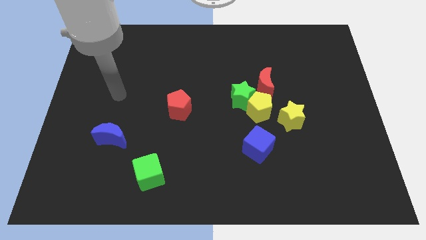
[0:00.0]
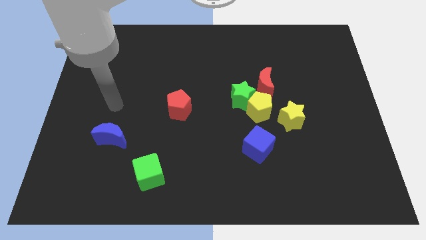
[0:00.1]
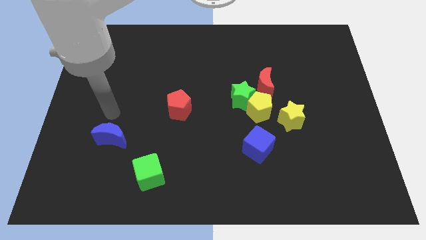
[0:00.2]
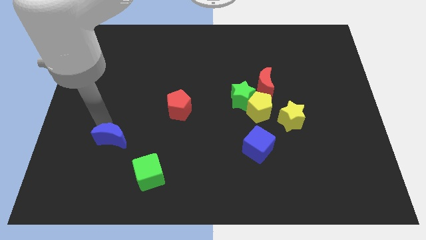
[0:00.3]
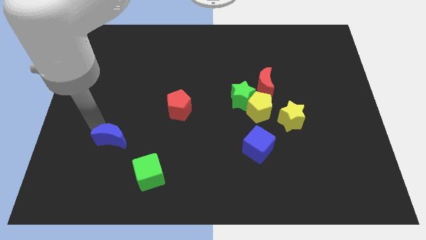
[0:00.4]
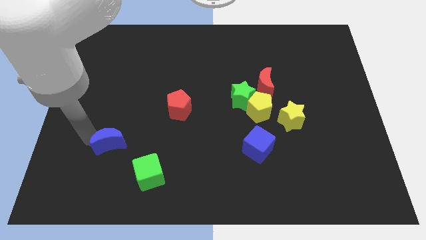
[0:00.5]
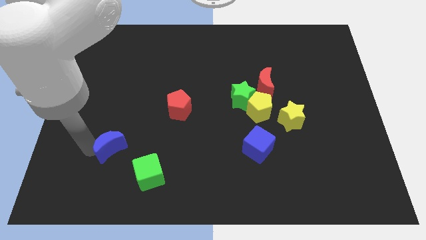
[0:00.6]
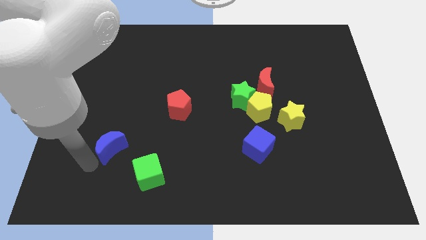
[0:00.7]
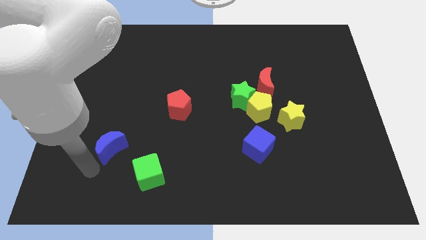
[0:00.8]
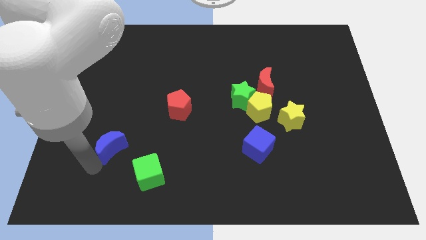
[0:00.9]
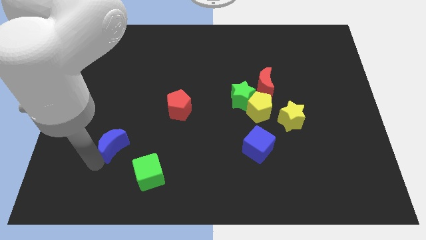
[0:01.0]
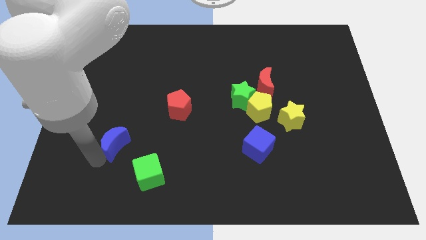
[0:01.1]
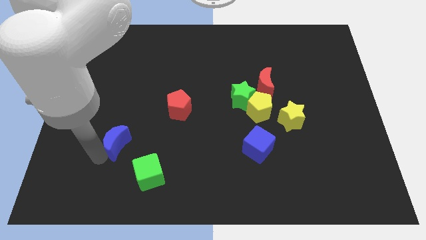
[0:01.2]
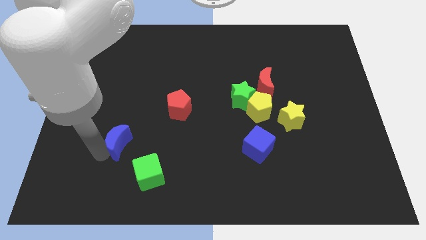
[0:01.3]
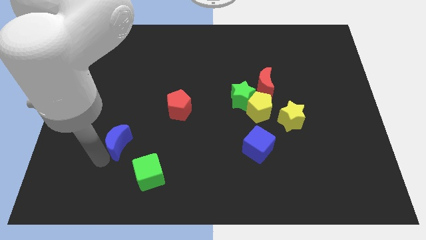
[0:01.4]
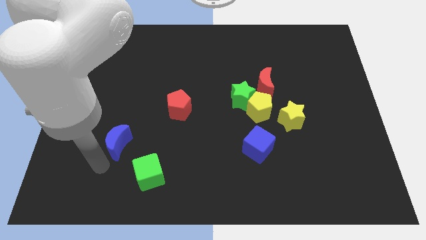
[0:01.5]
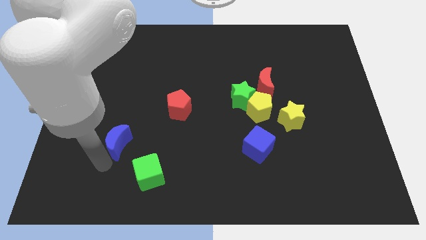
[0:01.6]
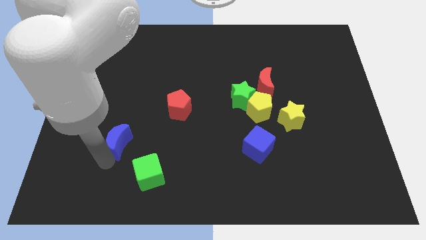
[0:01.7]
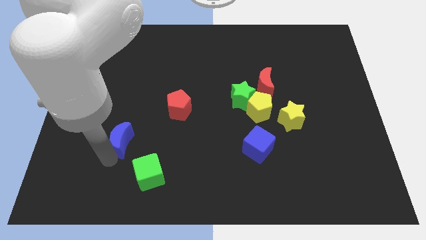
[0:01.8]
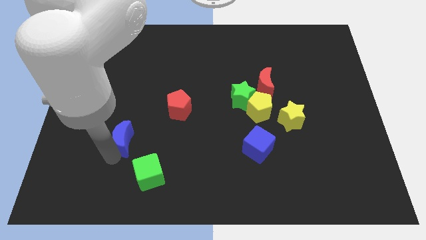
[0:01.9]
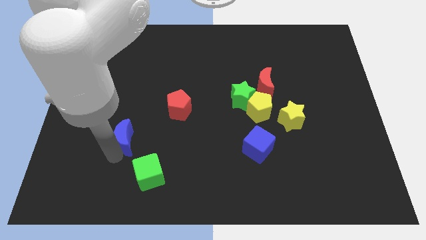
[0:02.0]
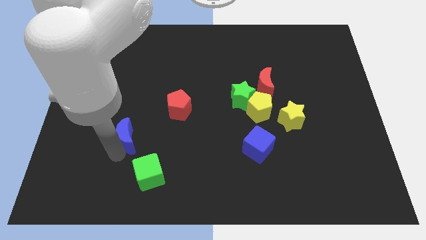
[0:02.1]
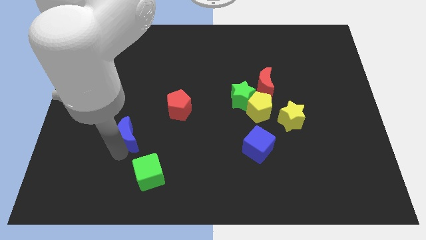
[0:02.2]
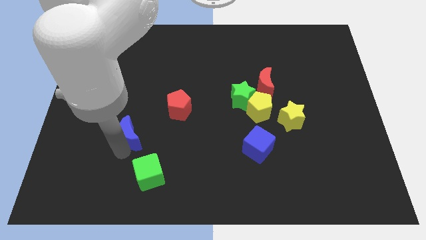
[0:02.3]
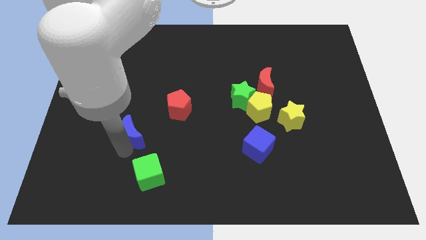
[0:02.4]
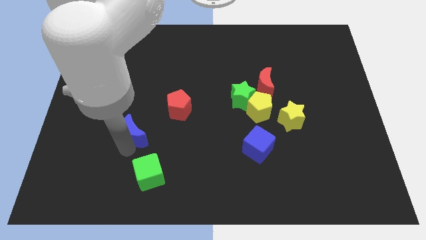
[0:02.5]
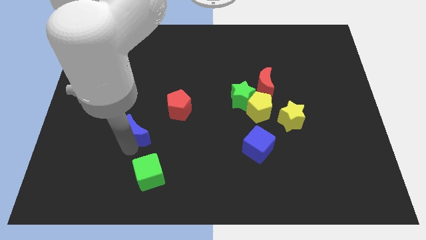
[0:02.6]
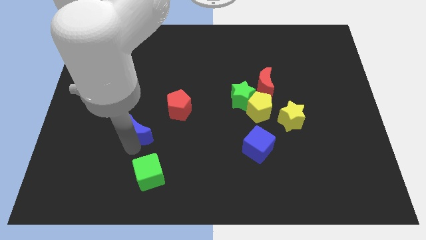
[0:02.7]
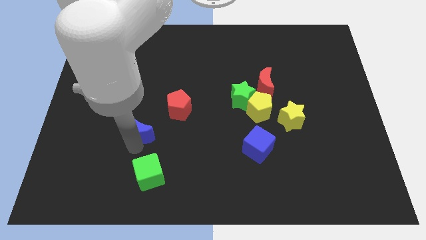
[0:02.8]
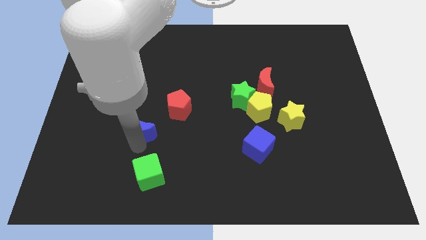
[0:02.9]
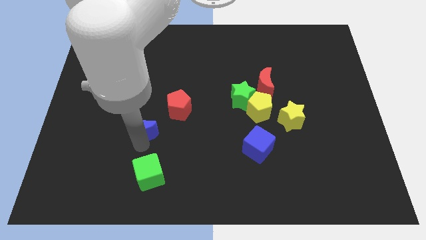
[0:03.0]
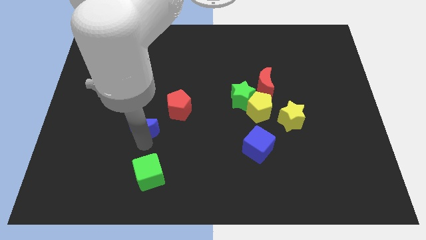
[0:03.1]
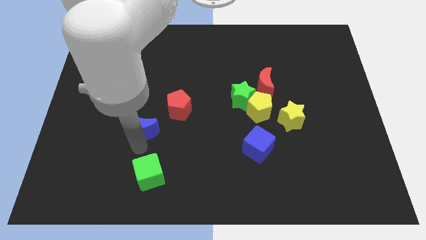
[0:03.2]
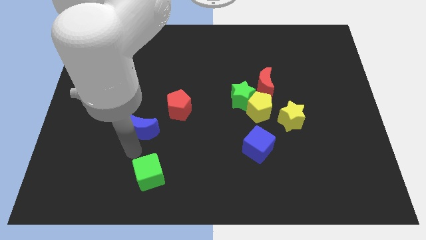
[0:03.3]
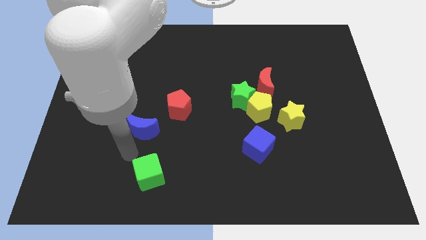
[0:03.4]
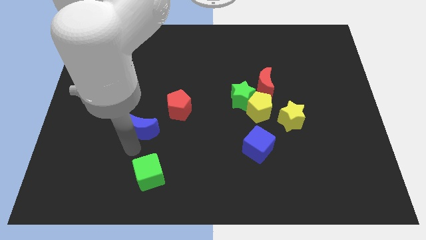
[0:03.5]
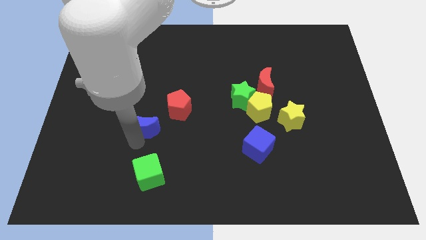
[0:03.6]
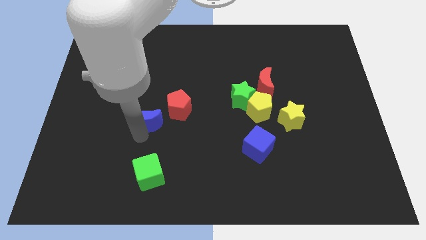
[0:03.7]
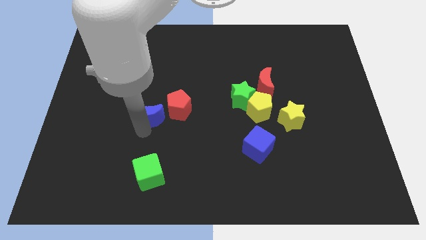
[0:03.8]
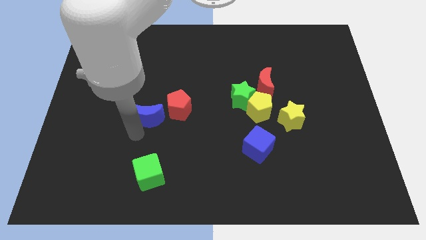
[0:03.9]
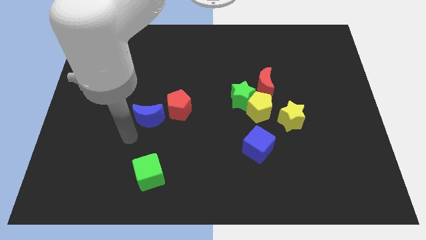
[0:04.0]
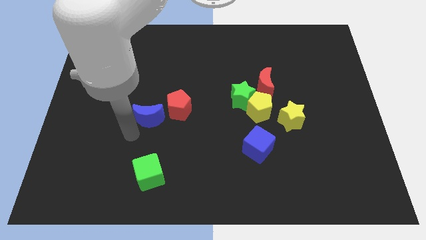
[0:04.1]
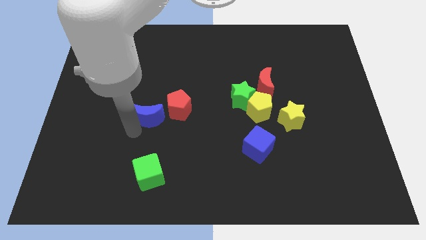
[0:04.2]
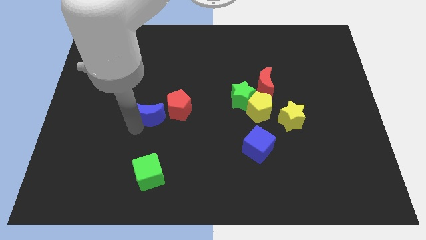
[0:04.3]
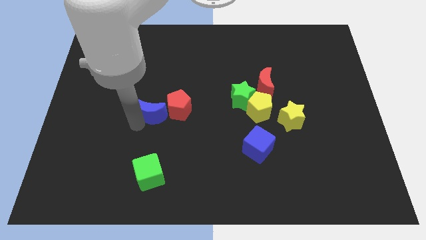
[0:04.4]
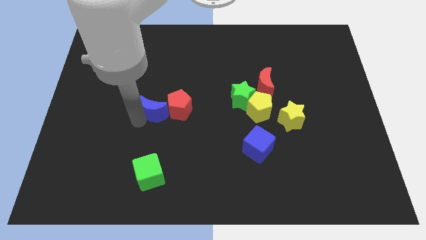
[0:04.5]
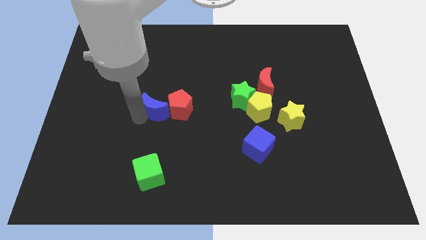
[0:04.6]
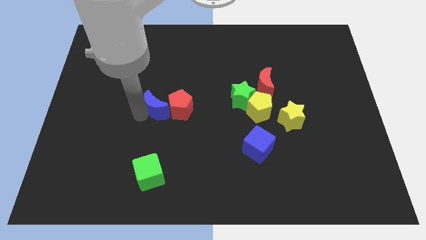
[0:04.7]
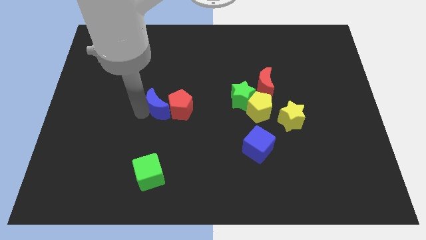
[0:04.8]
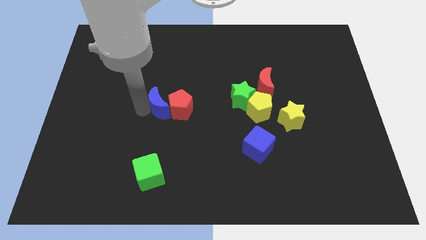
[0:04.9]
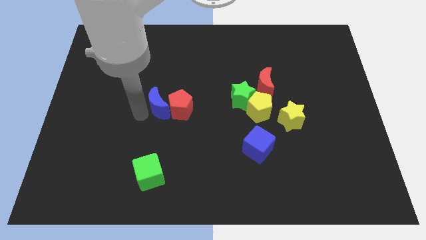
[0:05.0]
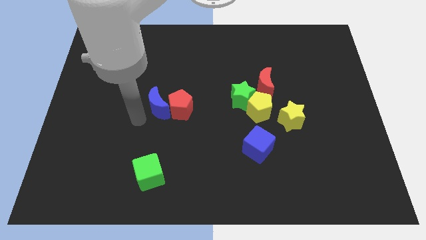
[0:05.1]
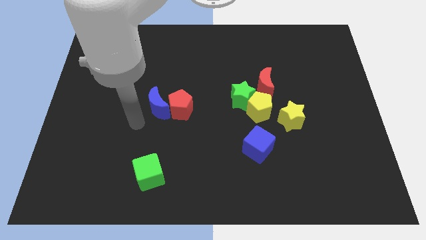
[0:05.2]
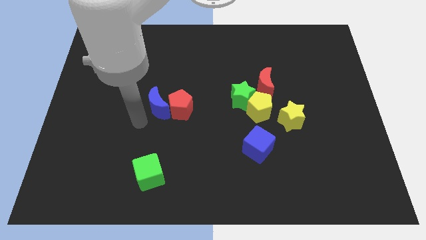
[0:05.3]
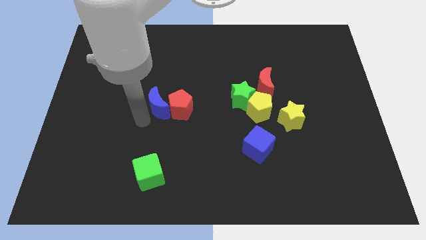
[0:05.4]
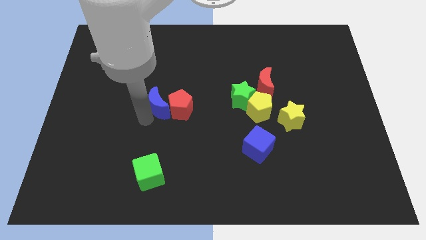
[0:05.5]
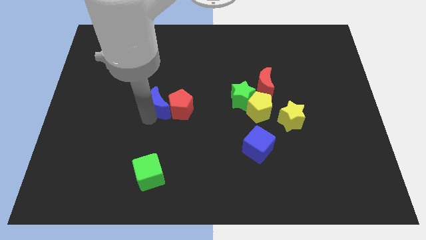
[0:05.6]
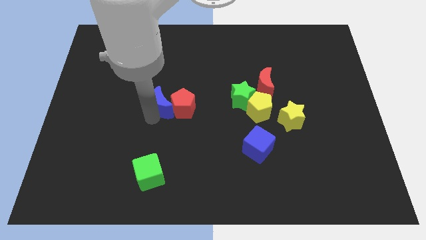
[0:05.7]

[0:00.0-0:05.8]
slide the blue moon to the center of the board
